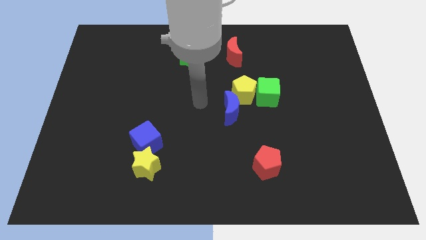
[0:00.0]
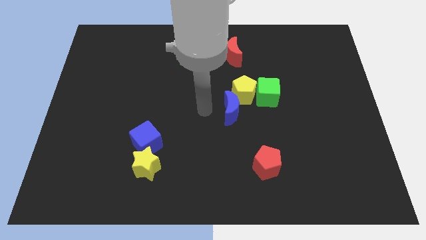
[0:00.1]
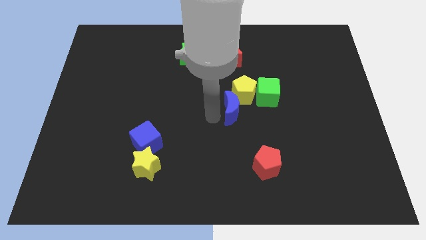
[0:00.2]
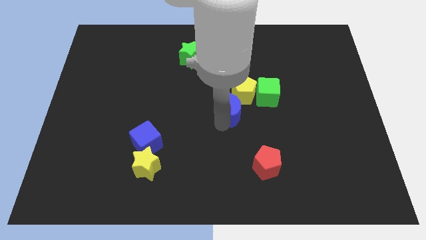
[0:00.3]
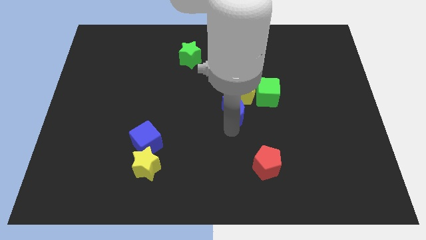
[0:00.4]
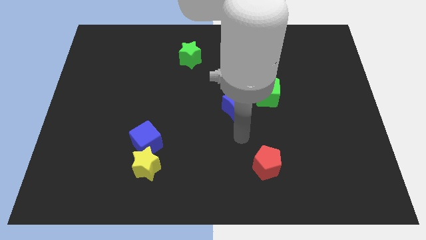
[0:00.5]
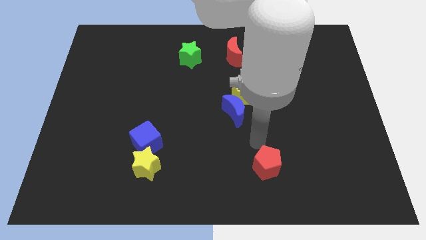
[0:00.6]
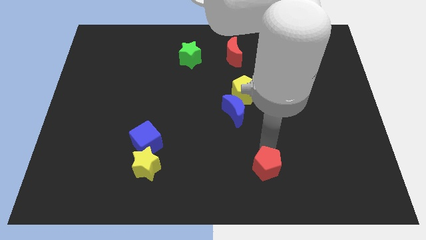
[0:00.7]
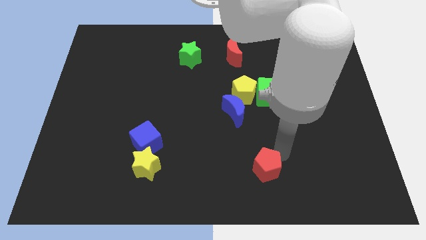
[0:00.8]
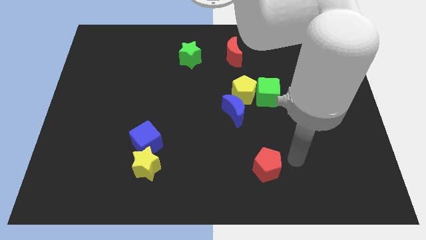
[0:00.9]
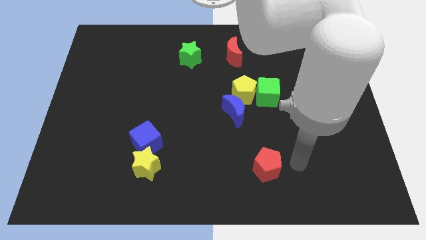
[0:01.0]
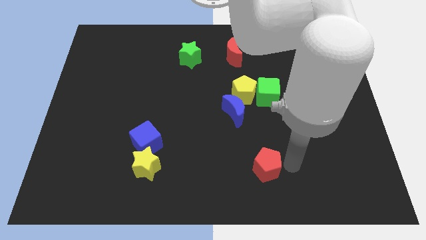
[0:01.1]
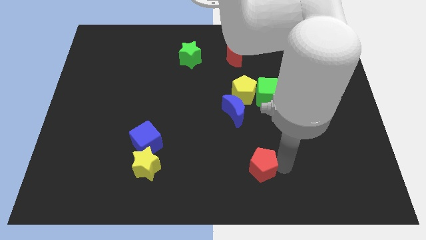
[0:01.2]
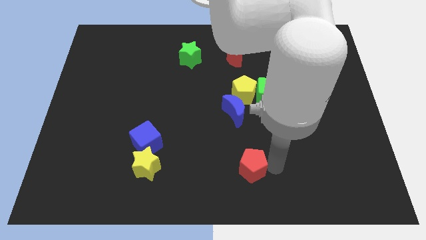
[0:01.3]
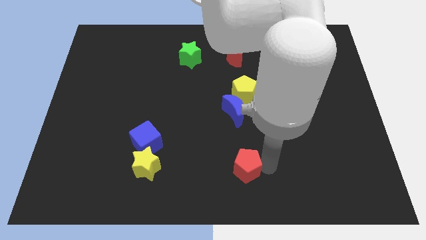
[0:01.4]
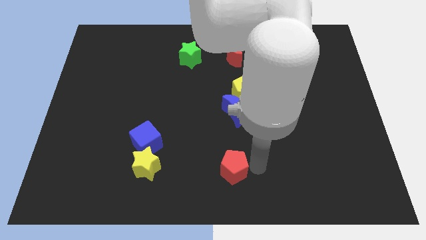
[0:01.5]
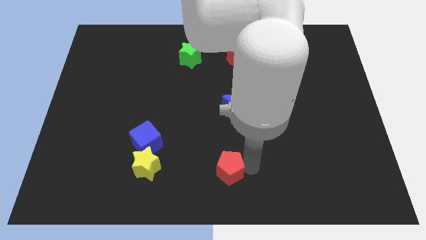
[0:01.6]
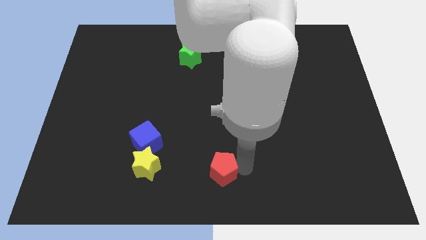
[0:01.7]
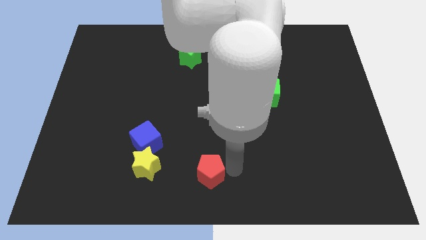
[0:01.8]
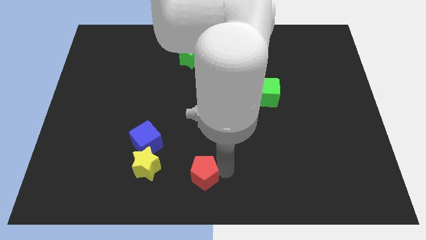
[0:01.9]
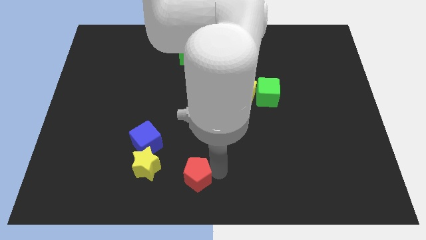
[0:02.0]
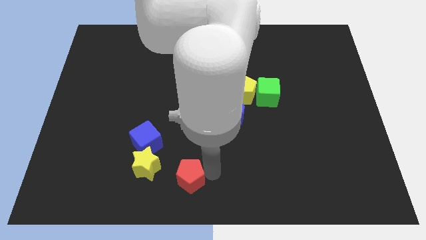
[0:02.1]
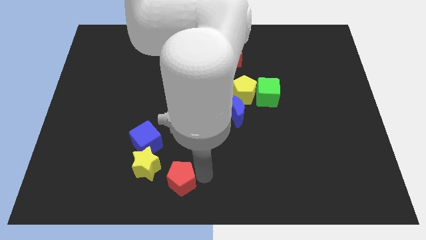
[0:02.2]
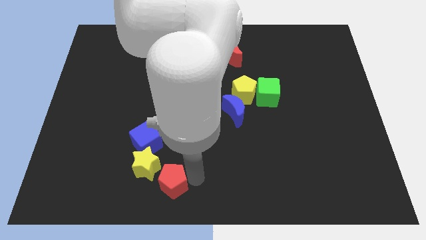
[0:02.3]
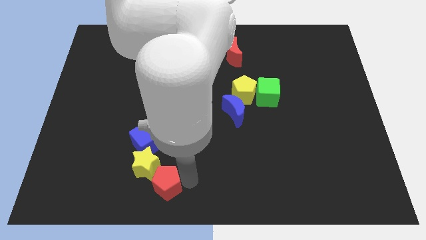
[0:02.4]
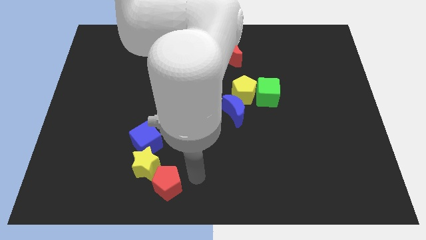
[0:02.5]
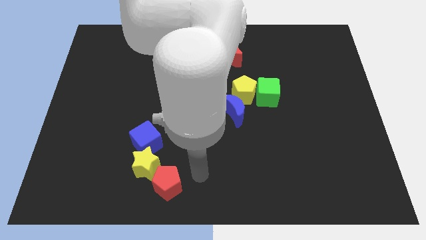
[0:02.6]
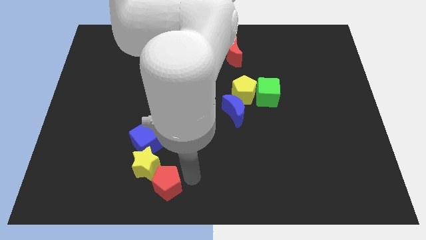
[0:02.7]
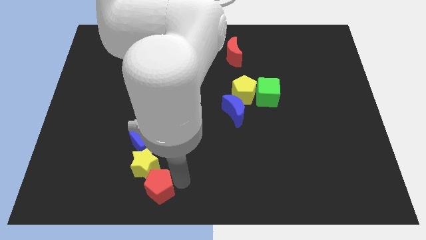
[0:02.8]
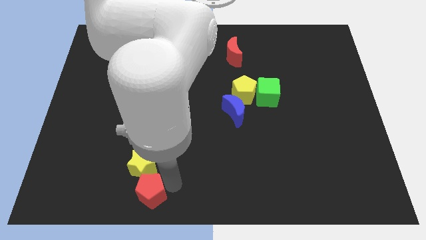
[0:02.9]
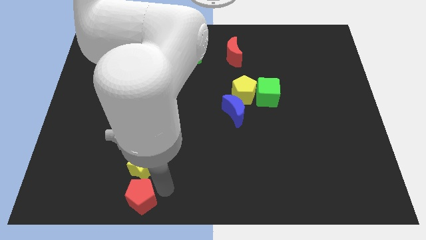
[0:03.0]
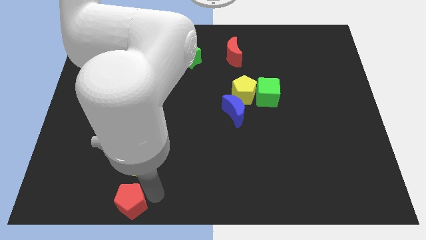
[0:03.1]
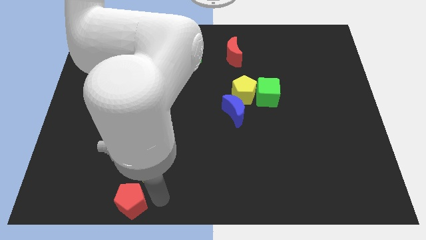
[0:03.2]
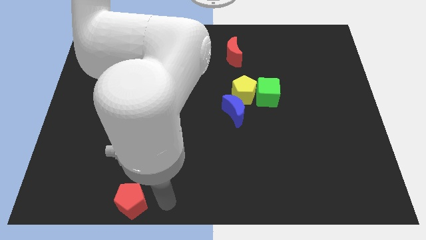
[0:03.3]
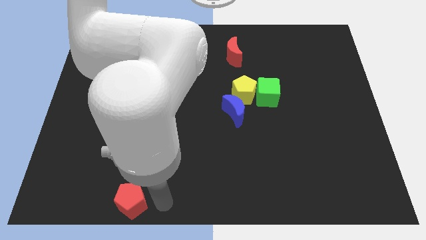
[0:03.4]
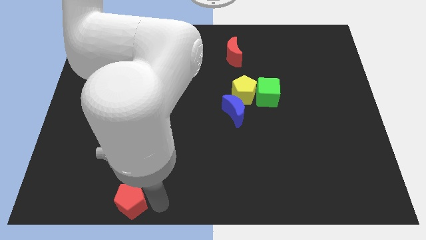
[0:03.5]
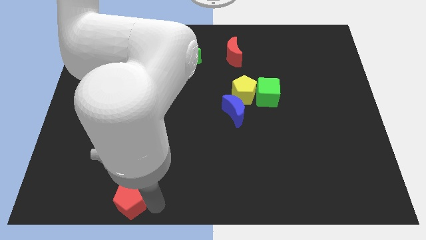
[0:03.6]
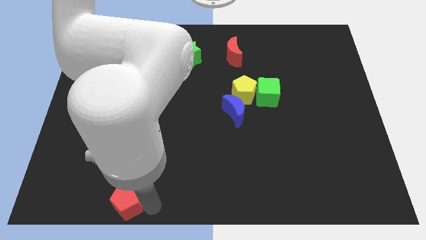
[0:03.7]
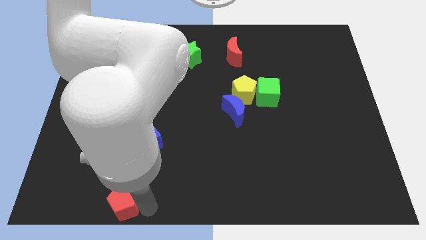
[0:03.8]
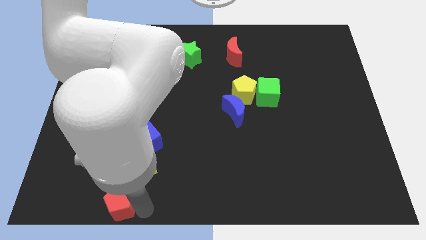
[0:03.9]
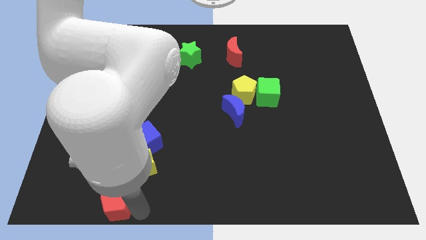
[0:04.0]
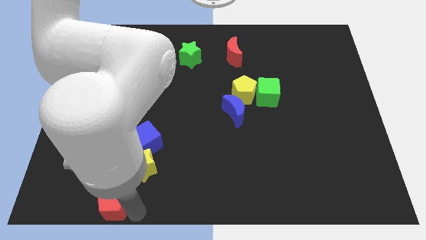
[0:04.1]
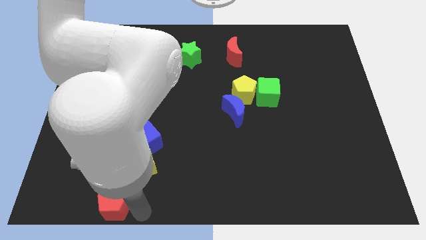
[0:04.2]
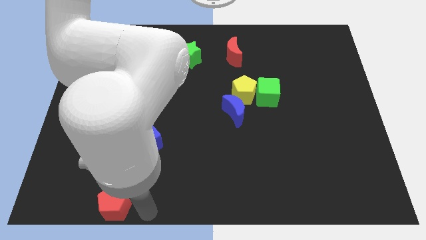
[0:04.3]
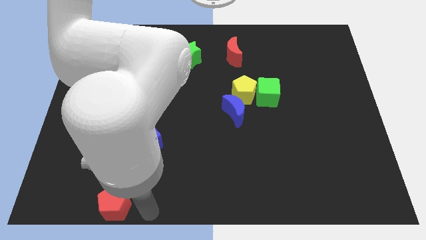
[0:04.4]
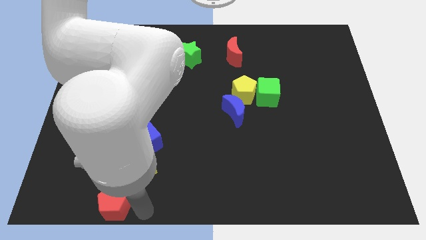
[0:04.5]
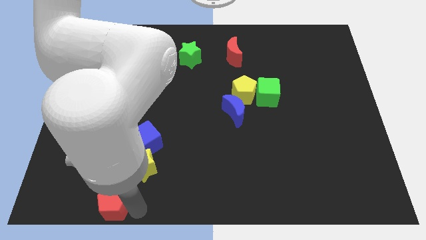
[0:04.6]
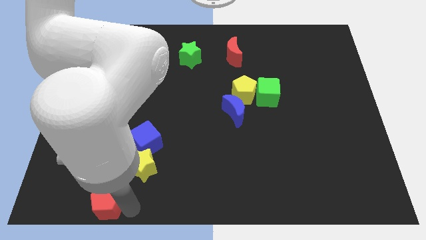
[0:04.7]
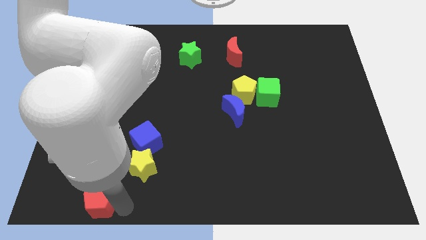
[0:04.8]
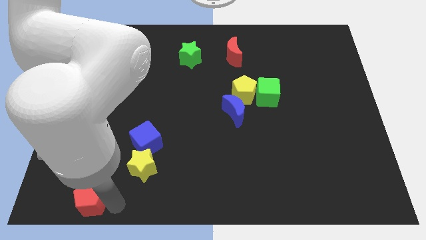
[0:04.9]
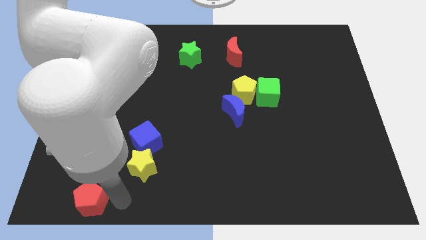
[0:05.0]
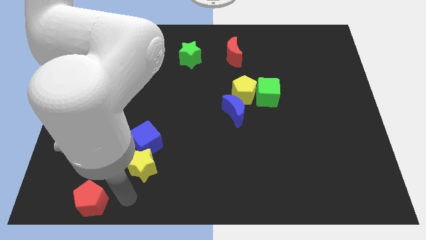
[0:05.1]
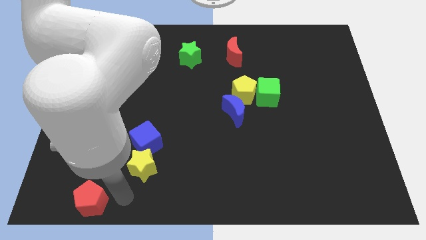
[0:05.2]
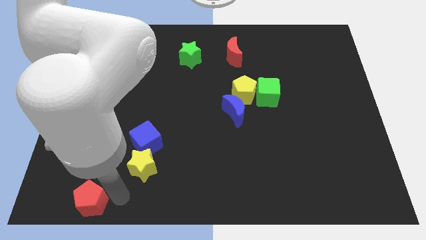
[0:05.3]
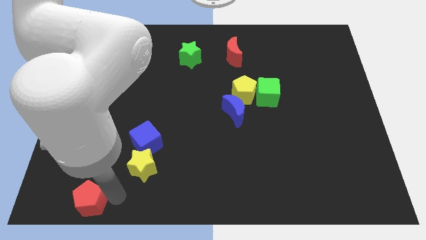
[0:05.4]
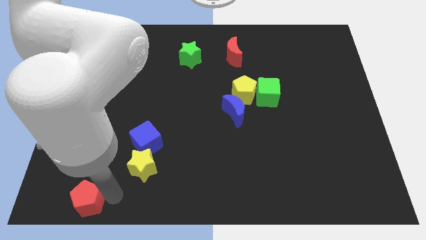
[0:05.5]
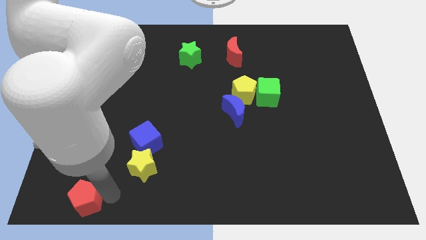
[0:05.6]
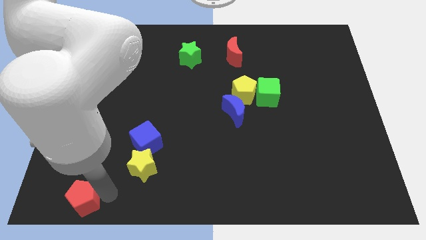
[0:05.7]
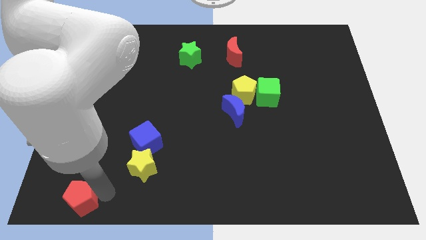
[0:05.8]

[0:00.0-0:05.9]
push the red pentagon to the bottom left

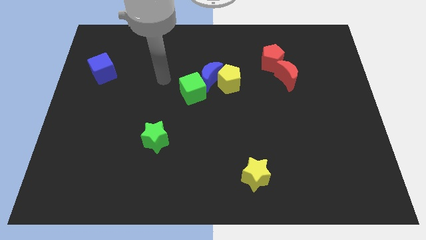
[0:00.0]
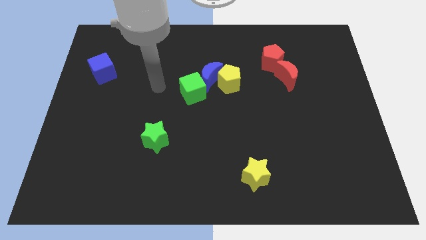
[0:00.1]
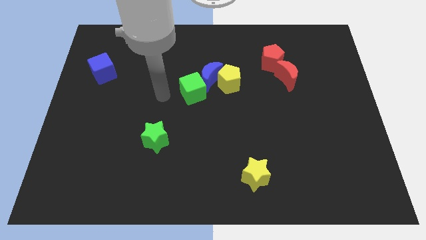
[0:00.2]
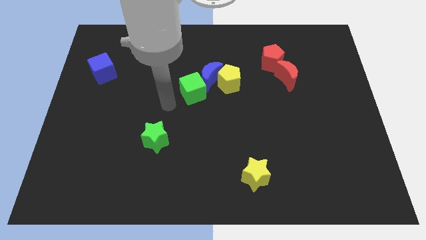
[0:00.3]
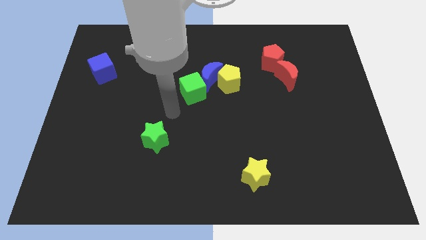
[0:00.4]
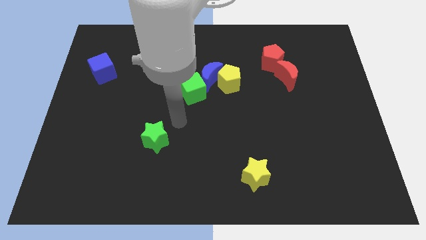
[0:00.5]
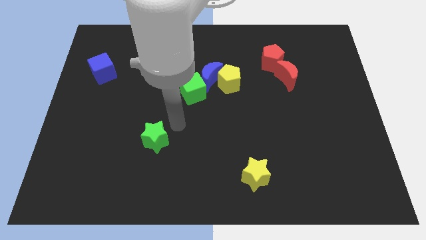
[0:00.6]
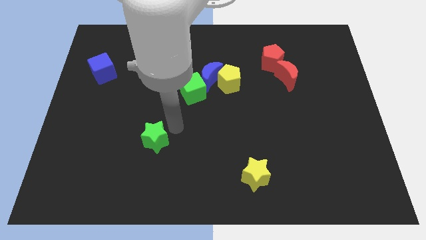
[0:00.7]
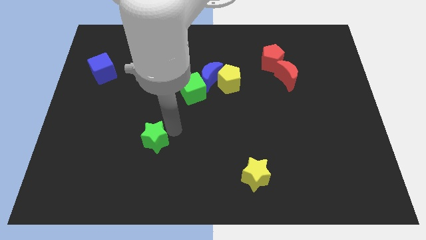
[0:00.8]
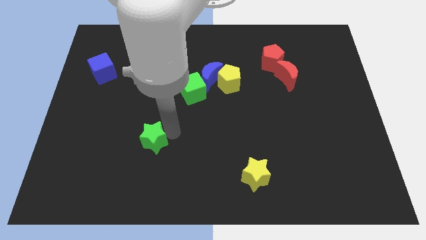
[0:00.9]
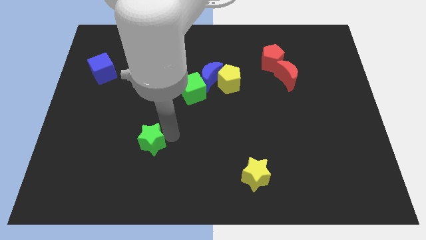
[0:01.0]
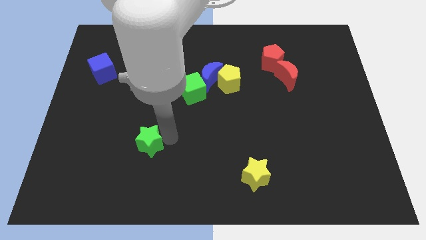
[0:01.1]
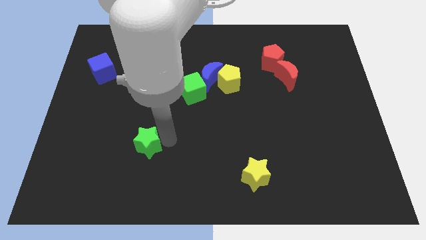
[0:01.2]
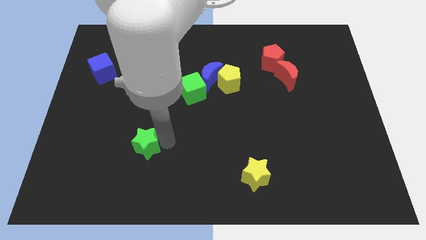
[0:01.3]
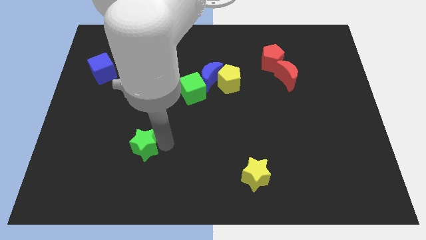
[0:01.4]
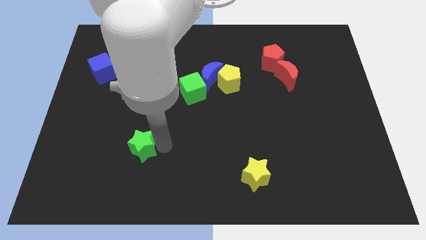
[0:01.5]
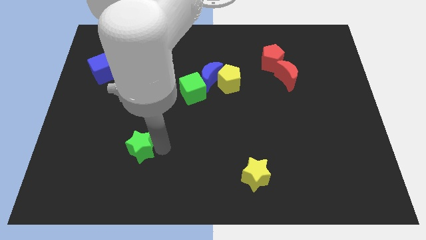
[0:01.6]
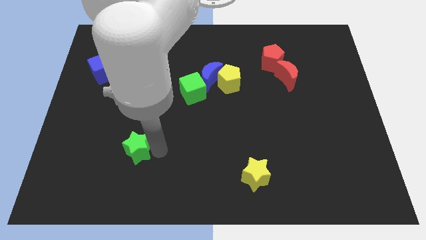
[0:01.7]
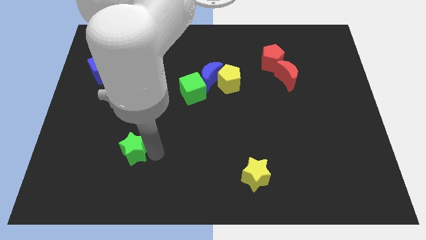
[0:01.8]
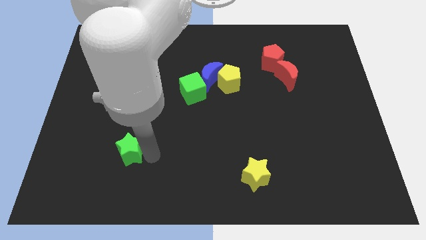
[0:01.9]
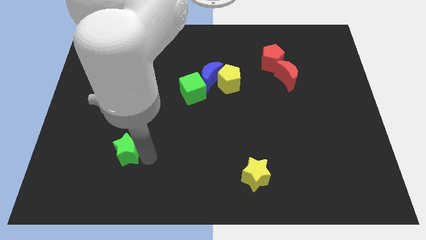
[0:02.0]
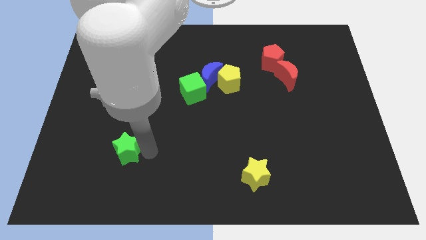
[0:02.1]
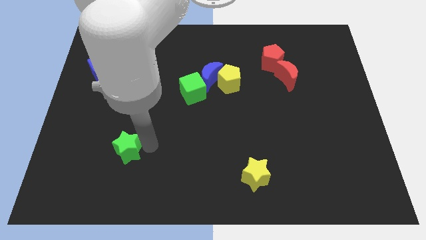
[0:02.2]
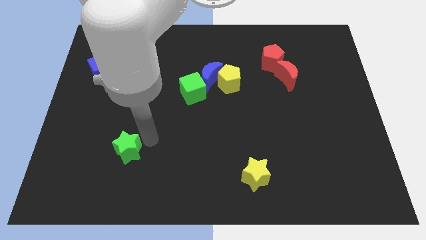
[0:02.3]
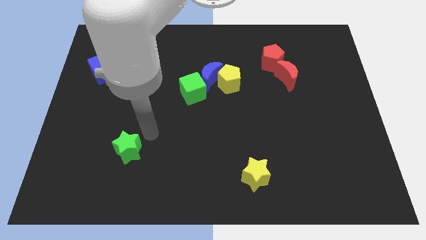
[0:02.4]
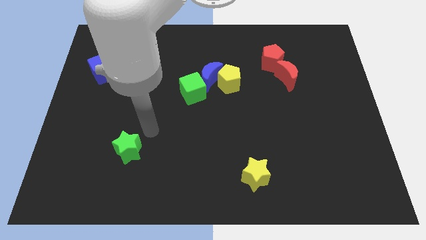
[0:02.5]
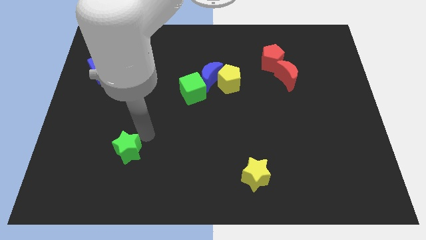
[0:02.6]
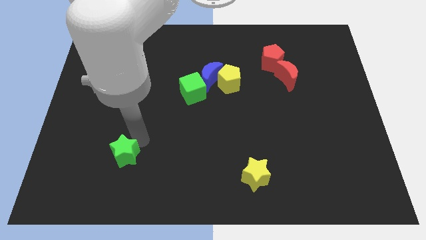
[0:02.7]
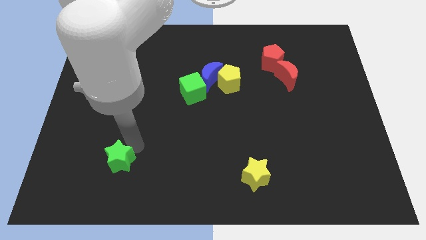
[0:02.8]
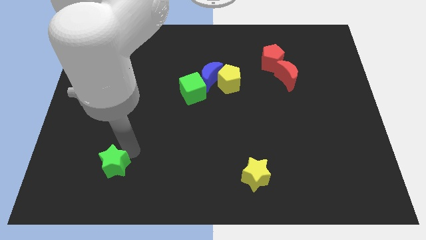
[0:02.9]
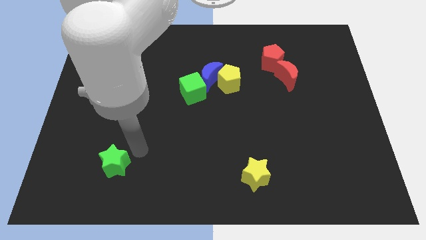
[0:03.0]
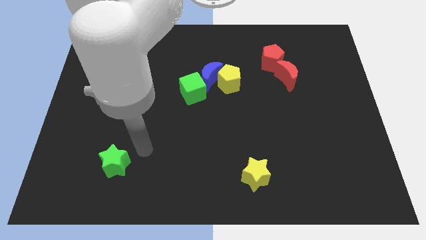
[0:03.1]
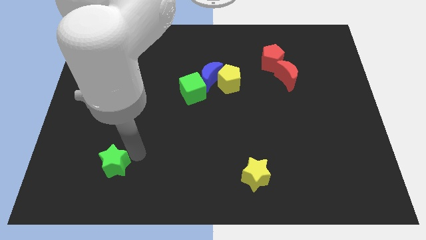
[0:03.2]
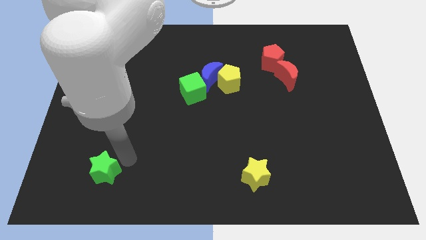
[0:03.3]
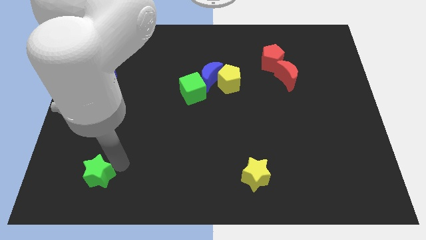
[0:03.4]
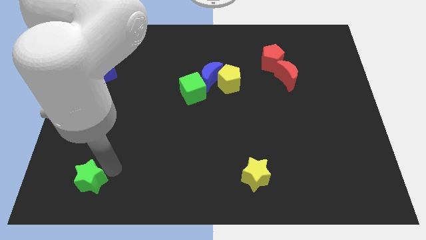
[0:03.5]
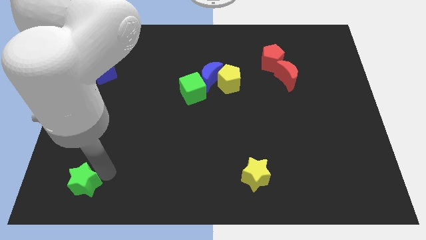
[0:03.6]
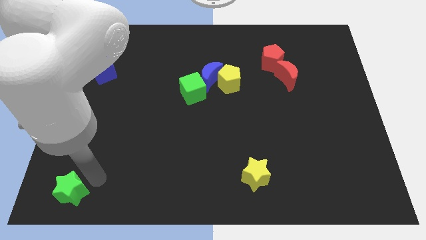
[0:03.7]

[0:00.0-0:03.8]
move the green star to the bottom left corner
